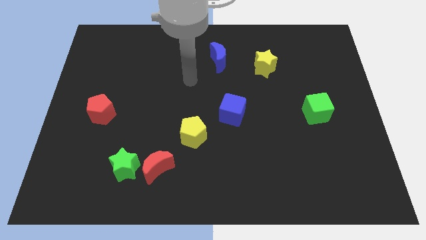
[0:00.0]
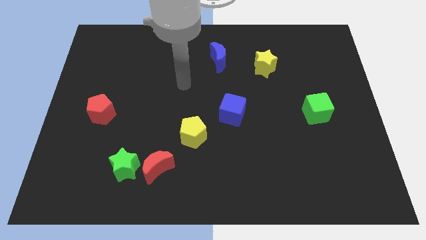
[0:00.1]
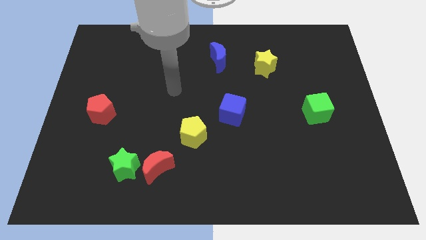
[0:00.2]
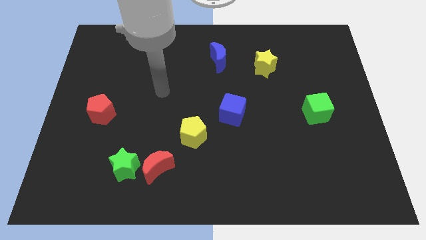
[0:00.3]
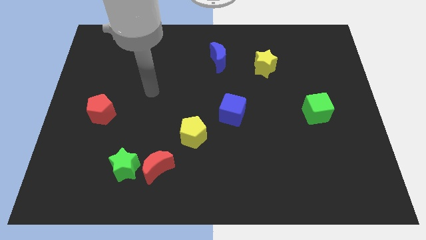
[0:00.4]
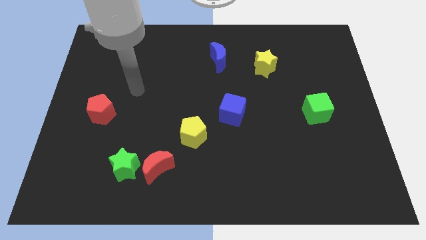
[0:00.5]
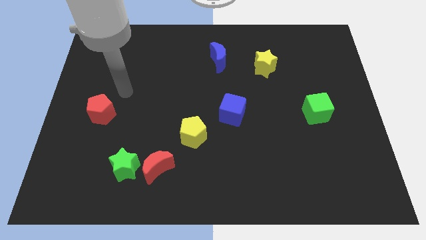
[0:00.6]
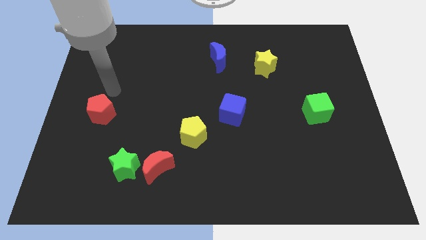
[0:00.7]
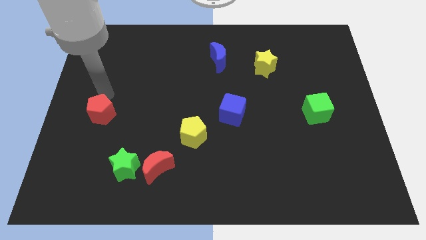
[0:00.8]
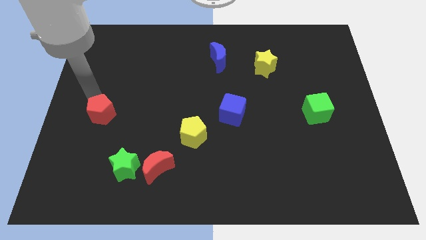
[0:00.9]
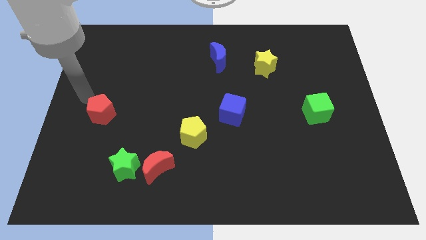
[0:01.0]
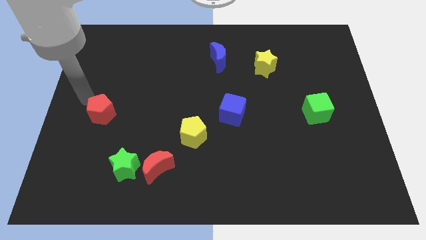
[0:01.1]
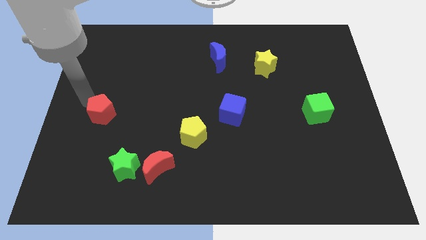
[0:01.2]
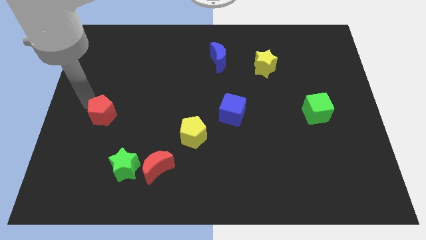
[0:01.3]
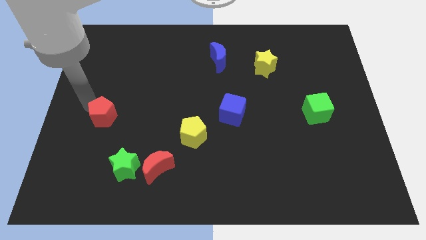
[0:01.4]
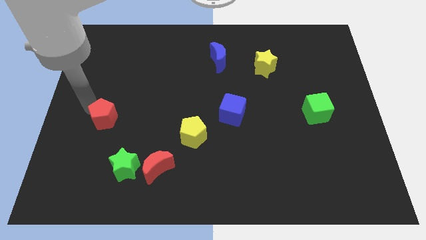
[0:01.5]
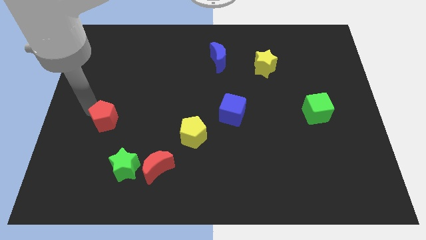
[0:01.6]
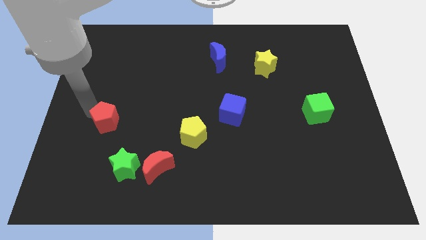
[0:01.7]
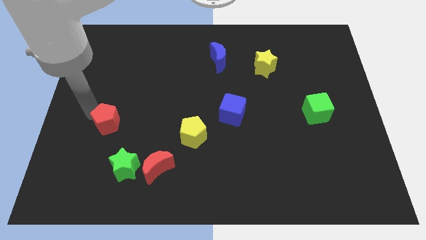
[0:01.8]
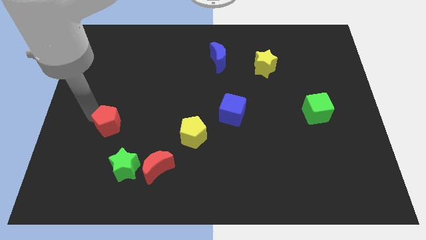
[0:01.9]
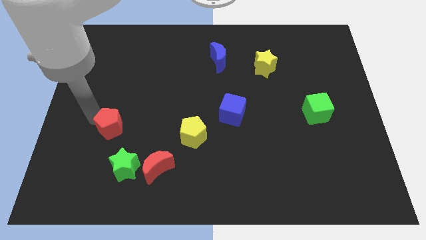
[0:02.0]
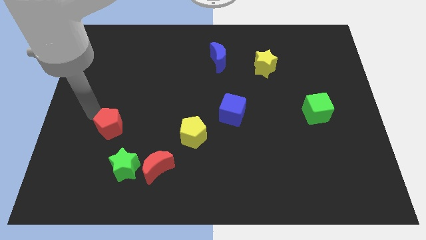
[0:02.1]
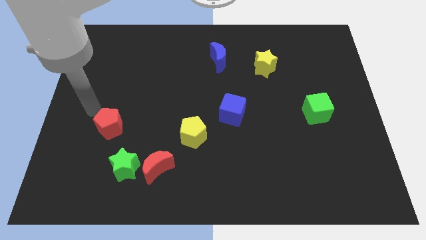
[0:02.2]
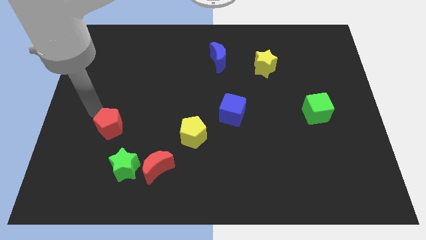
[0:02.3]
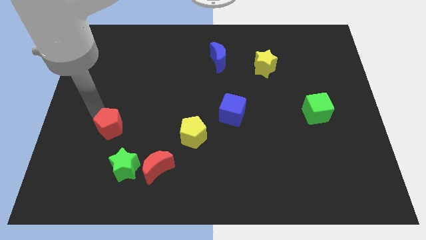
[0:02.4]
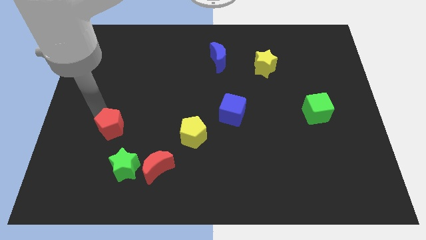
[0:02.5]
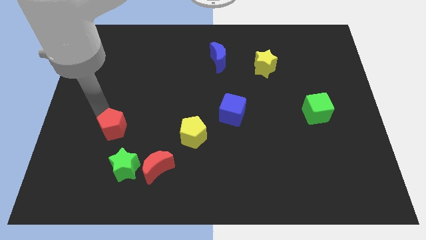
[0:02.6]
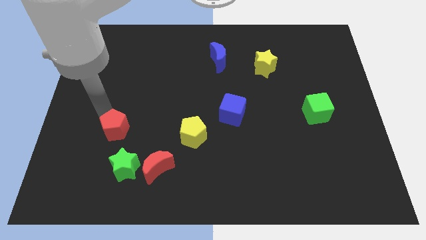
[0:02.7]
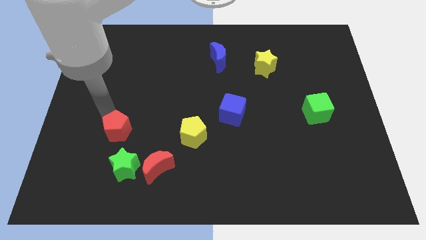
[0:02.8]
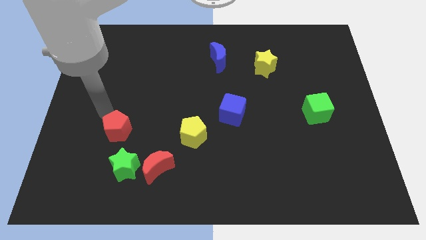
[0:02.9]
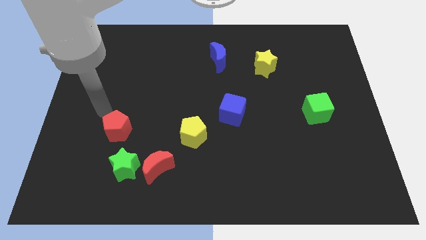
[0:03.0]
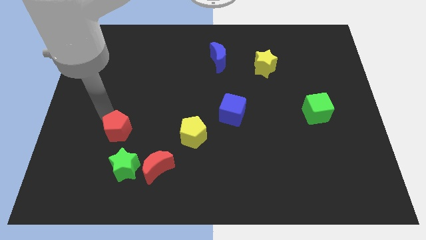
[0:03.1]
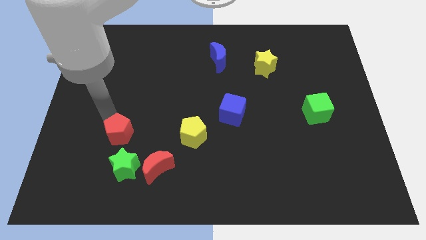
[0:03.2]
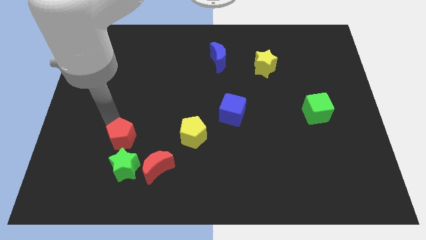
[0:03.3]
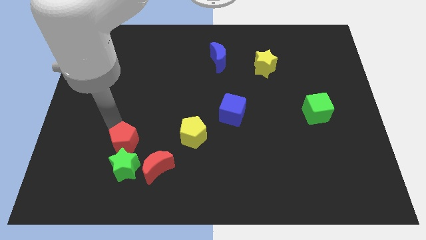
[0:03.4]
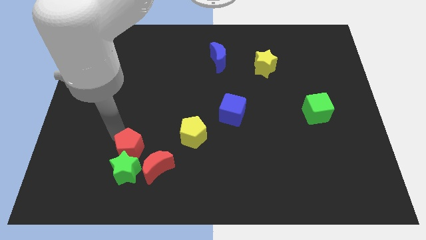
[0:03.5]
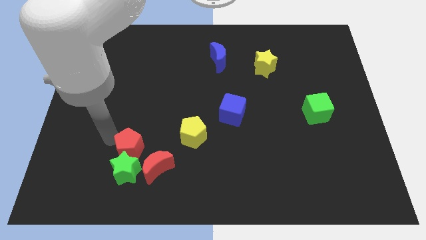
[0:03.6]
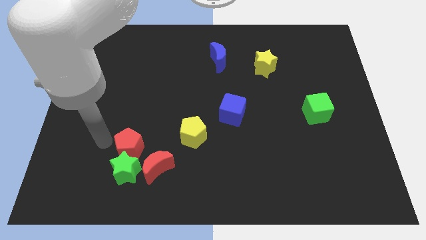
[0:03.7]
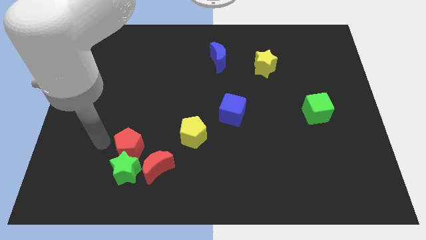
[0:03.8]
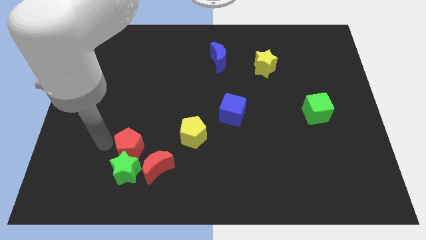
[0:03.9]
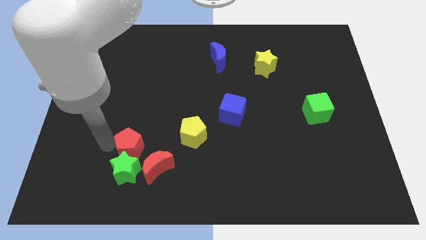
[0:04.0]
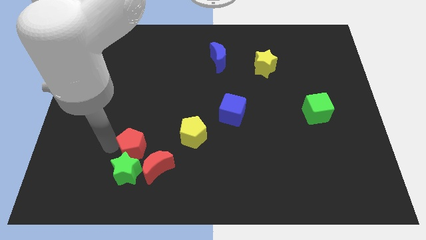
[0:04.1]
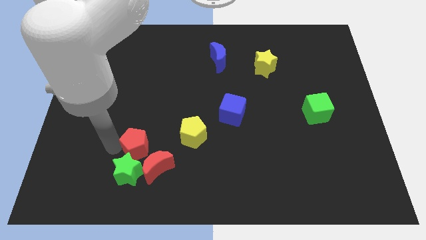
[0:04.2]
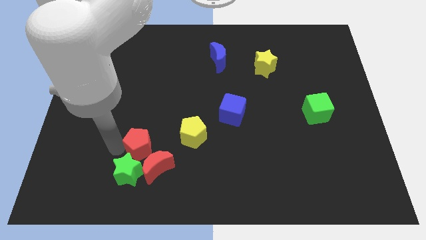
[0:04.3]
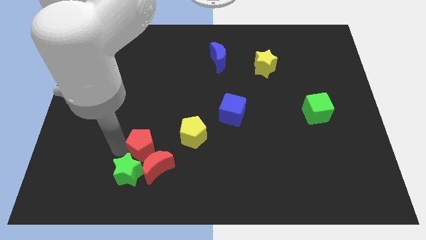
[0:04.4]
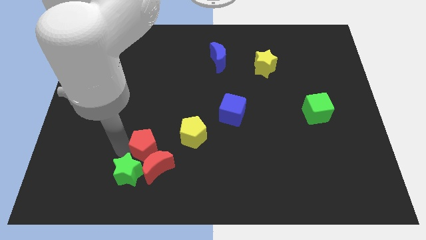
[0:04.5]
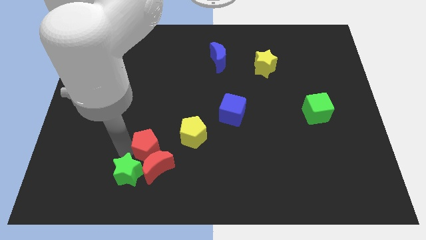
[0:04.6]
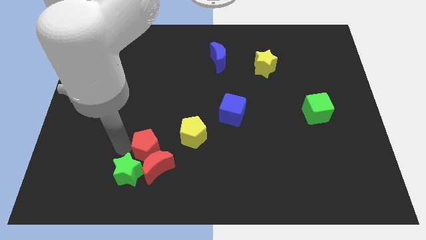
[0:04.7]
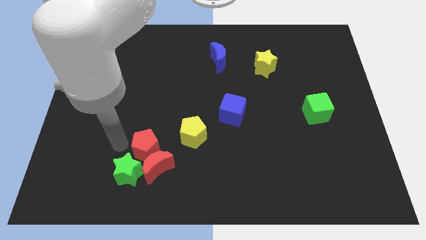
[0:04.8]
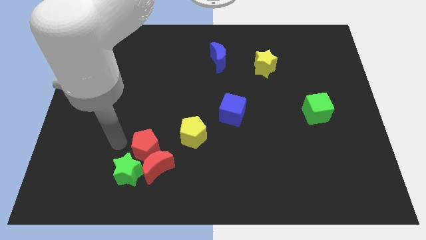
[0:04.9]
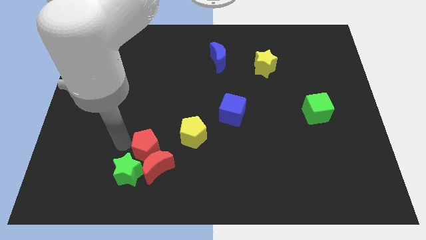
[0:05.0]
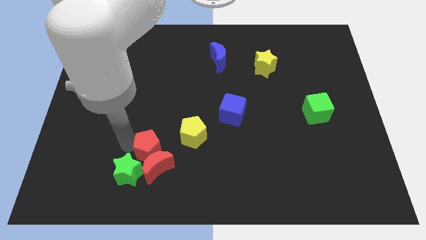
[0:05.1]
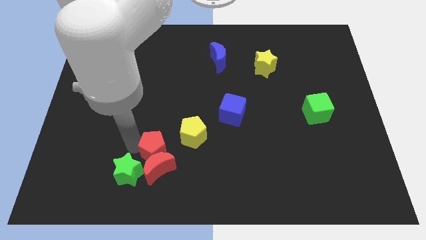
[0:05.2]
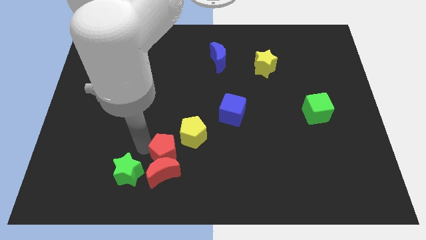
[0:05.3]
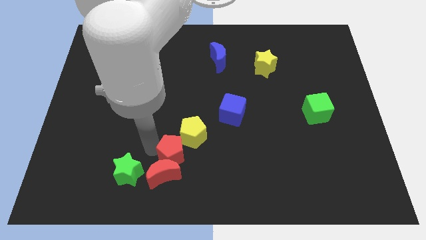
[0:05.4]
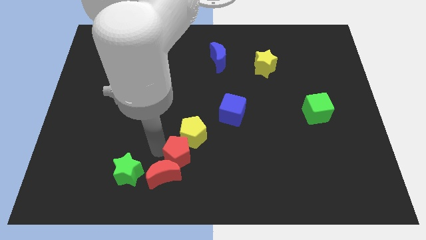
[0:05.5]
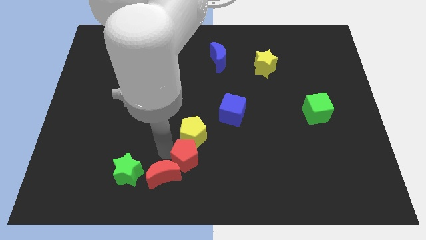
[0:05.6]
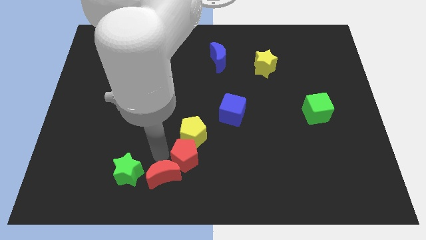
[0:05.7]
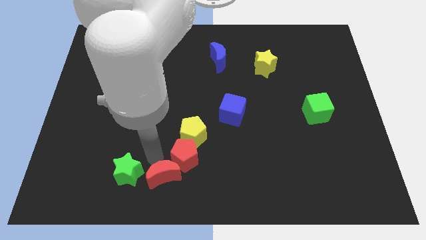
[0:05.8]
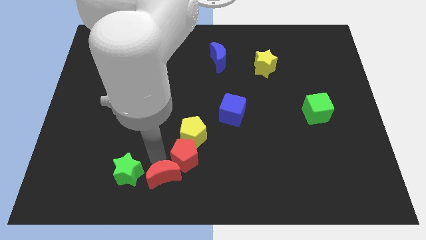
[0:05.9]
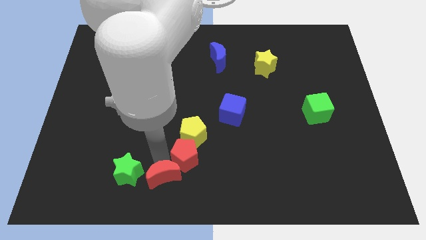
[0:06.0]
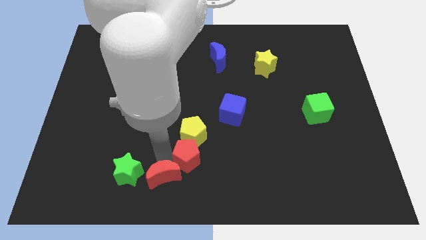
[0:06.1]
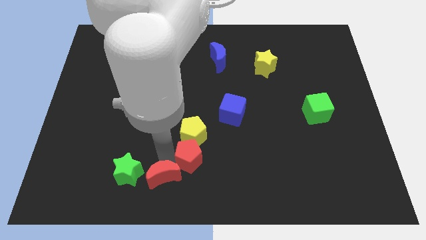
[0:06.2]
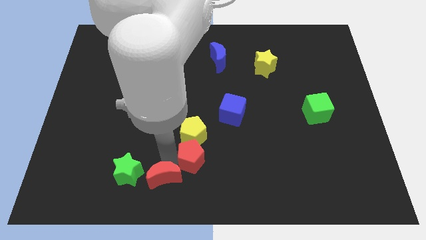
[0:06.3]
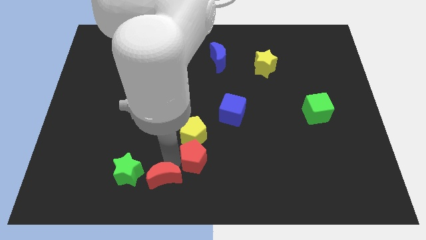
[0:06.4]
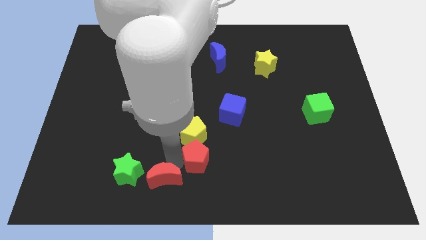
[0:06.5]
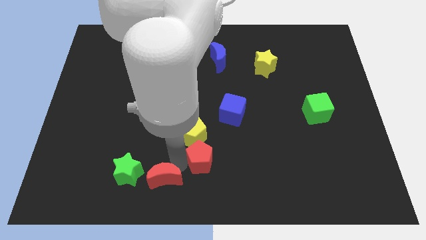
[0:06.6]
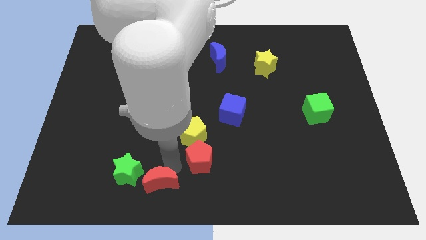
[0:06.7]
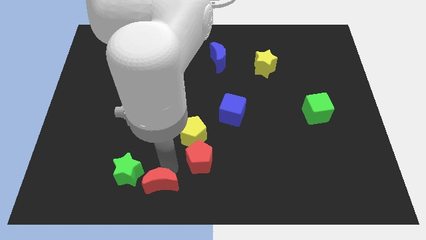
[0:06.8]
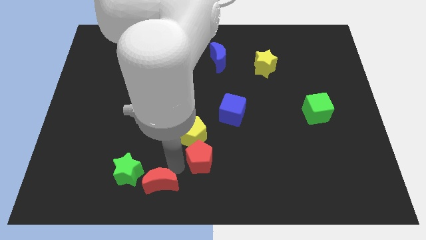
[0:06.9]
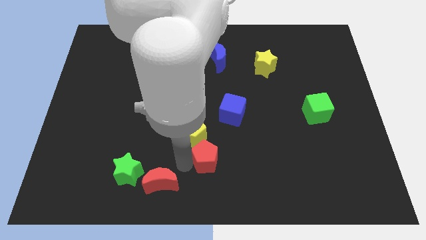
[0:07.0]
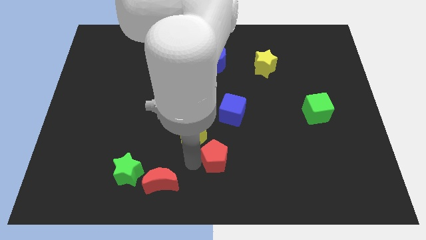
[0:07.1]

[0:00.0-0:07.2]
push the red pentagon below the blue cube

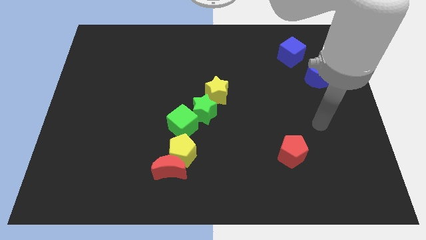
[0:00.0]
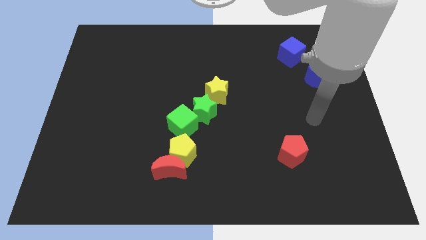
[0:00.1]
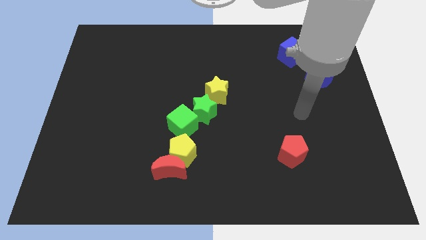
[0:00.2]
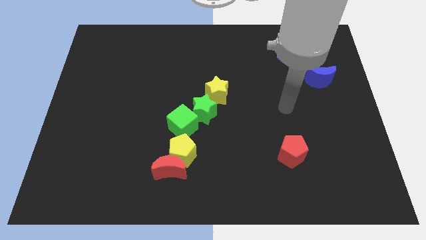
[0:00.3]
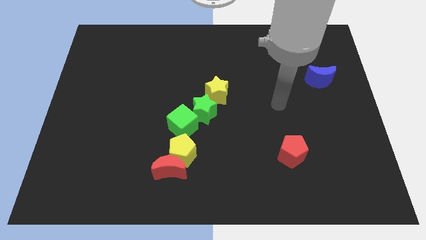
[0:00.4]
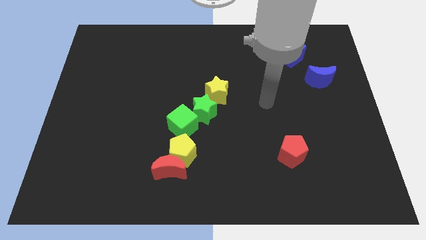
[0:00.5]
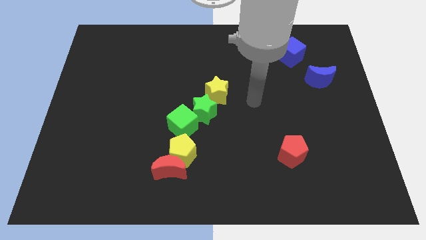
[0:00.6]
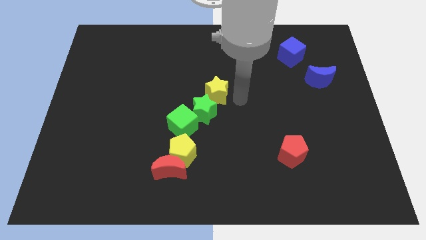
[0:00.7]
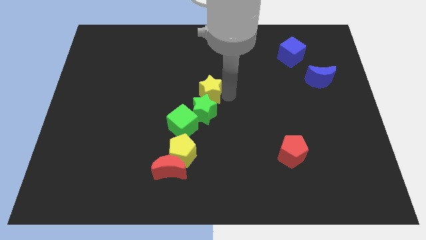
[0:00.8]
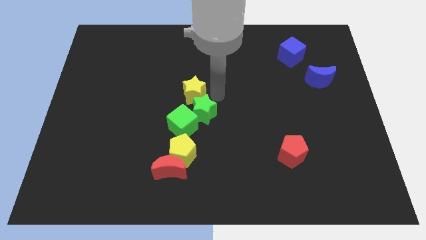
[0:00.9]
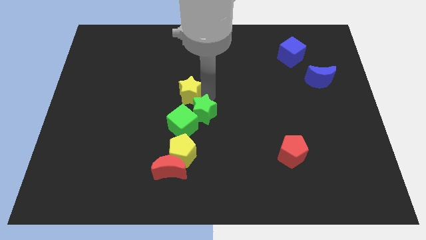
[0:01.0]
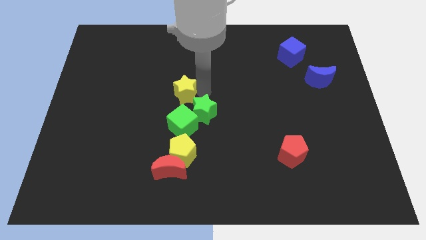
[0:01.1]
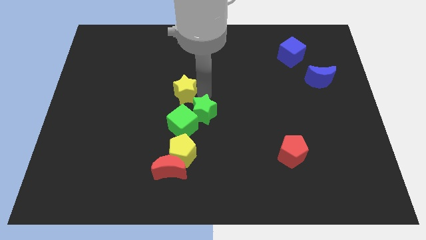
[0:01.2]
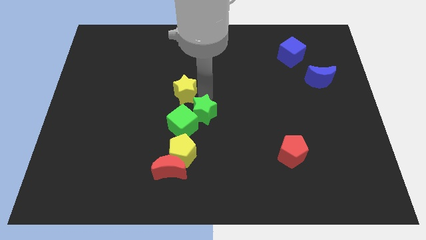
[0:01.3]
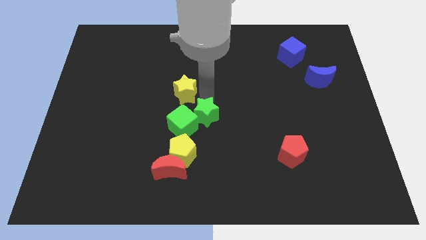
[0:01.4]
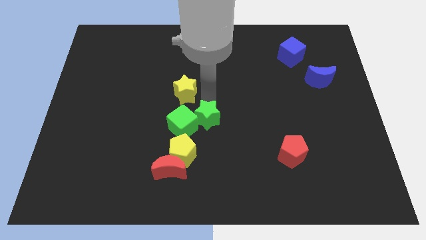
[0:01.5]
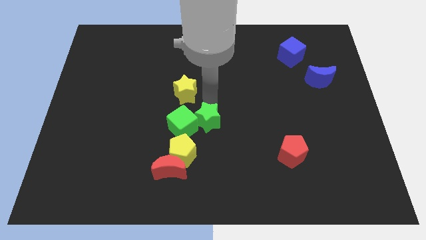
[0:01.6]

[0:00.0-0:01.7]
slide the green star to the bottom right of the green cube
